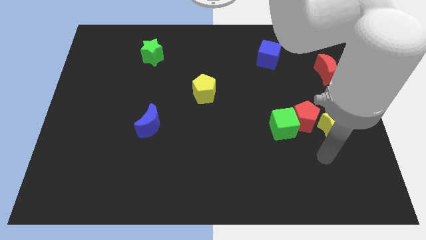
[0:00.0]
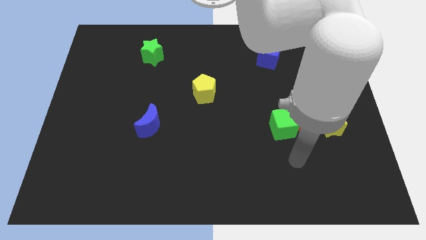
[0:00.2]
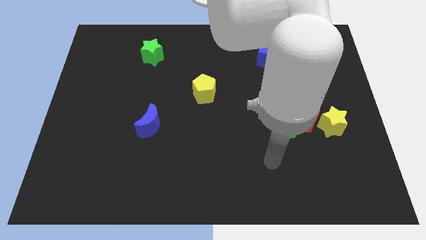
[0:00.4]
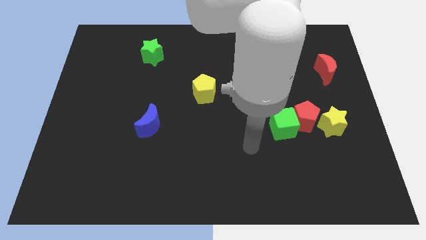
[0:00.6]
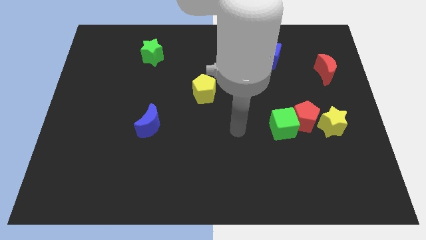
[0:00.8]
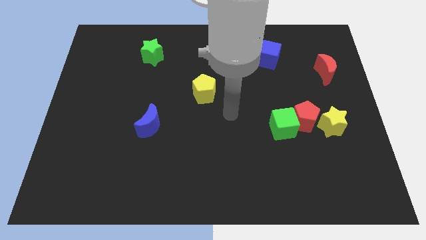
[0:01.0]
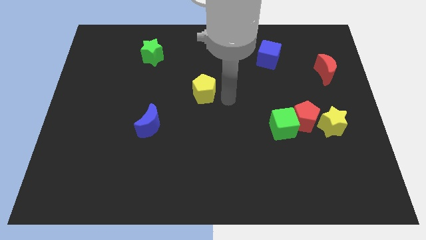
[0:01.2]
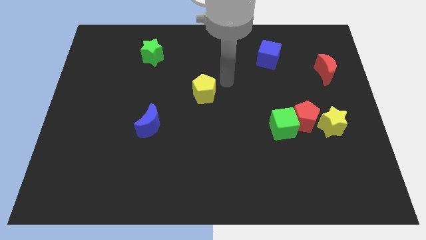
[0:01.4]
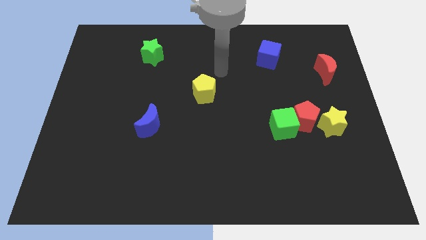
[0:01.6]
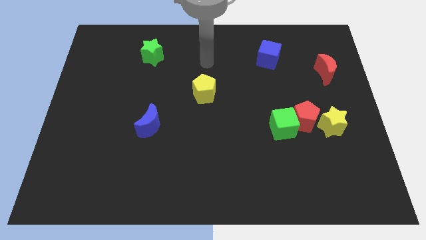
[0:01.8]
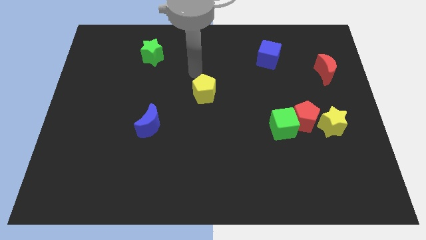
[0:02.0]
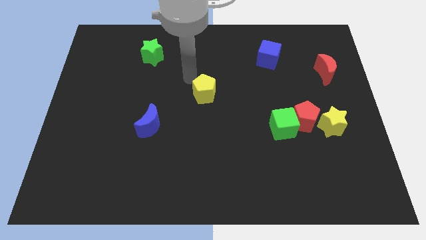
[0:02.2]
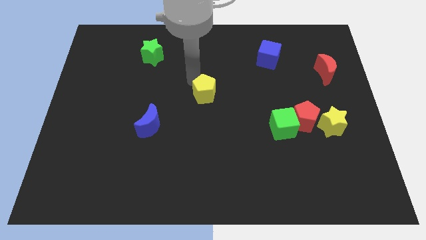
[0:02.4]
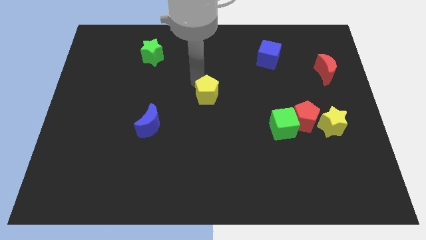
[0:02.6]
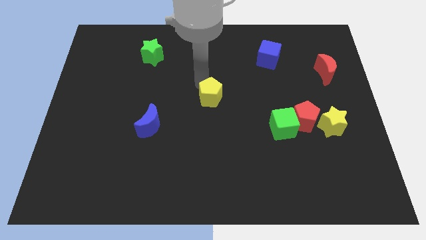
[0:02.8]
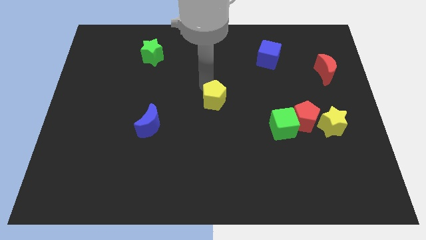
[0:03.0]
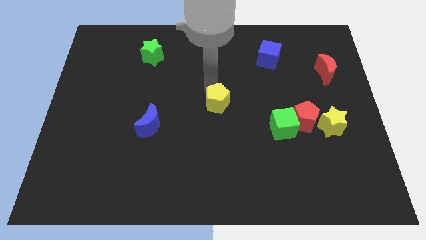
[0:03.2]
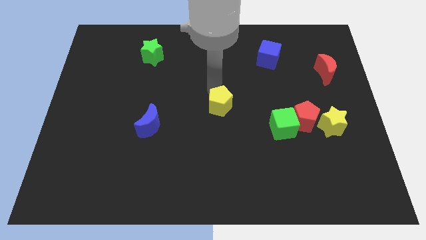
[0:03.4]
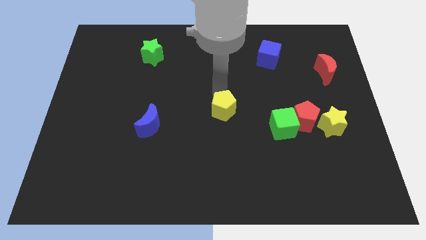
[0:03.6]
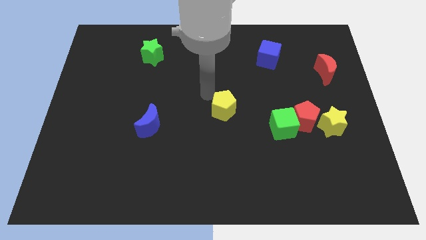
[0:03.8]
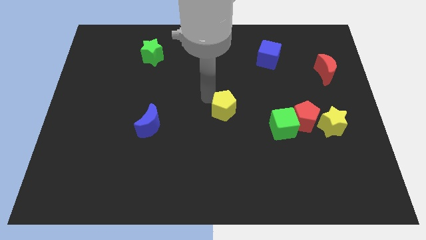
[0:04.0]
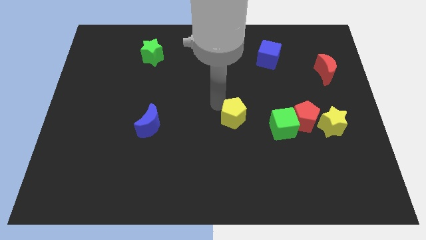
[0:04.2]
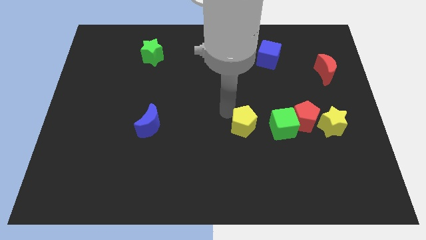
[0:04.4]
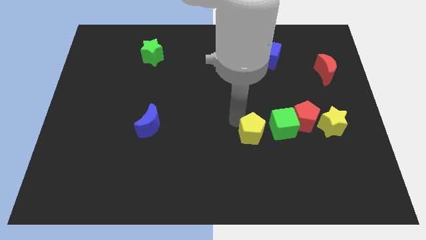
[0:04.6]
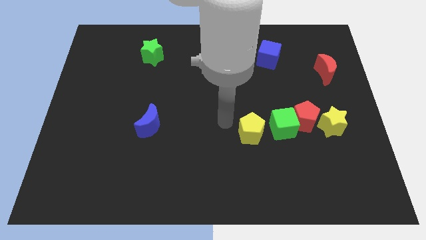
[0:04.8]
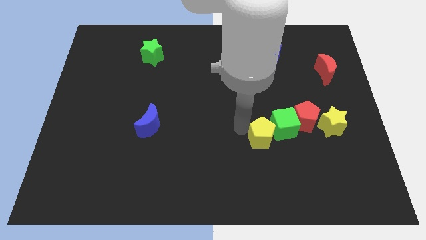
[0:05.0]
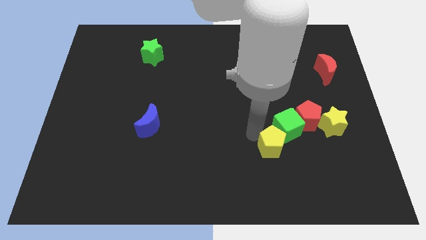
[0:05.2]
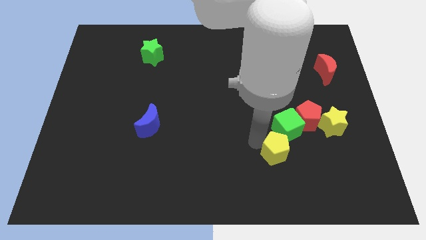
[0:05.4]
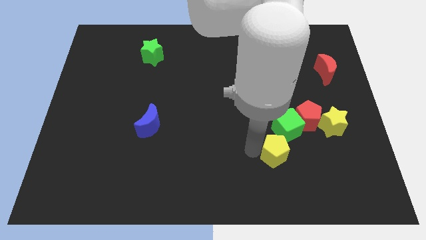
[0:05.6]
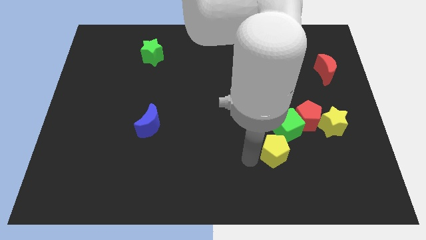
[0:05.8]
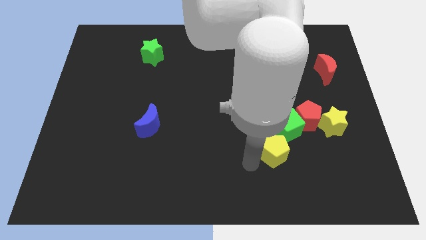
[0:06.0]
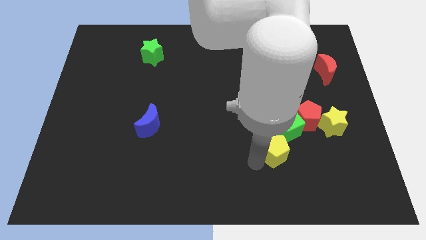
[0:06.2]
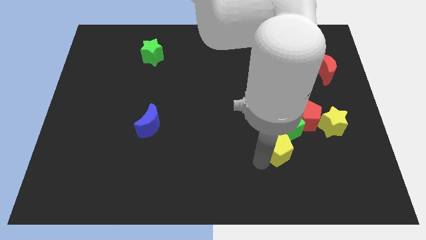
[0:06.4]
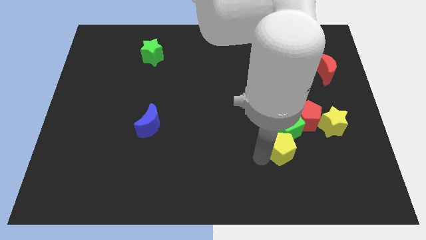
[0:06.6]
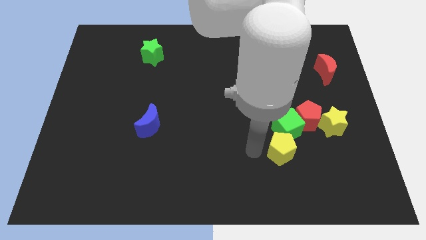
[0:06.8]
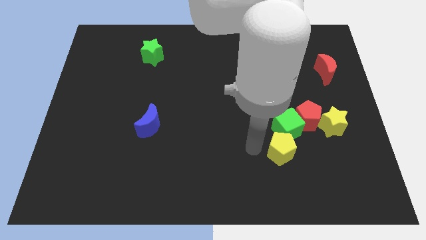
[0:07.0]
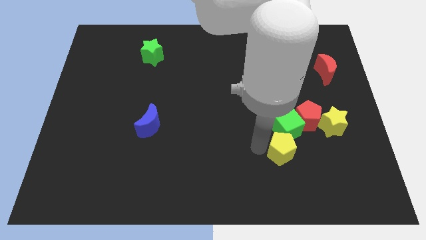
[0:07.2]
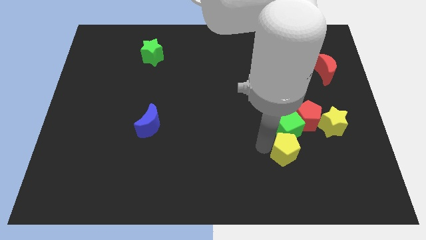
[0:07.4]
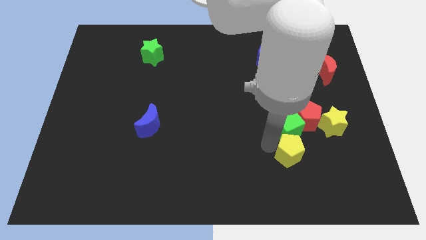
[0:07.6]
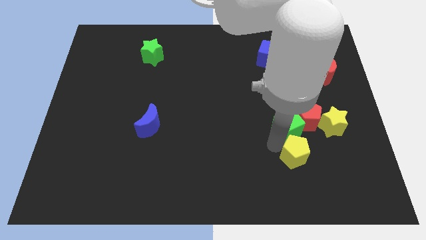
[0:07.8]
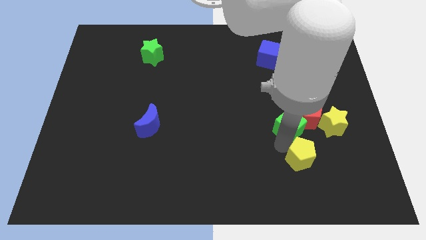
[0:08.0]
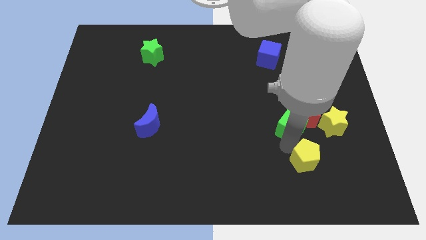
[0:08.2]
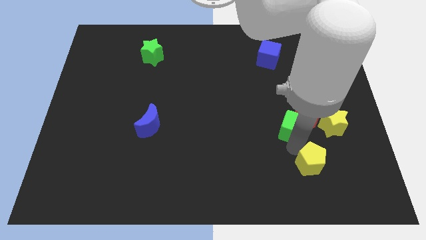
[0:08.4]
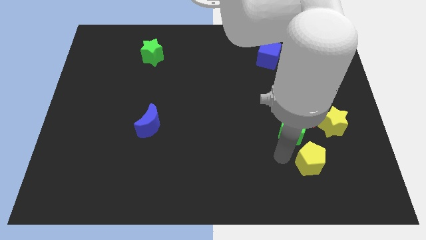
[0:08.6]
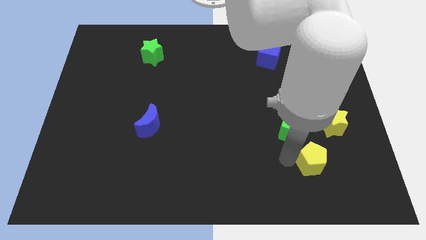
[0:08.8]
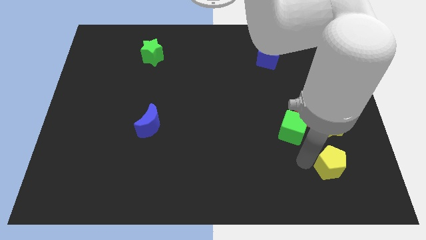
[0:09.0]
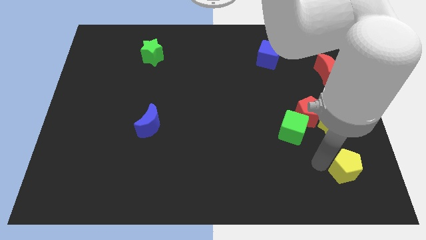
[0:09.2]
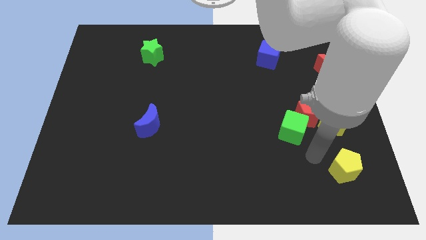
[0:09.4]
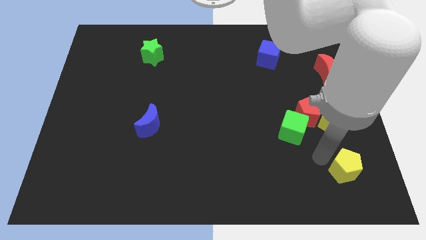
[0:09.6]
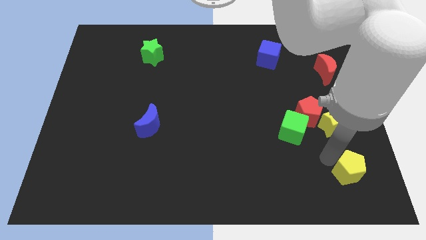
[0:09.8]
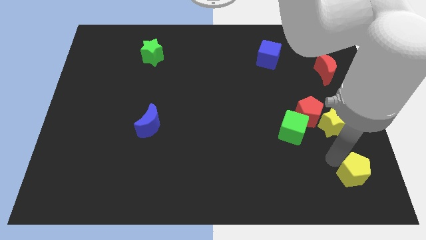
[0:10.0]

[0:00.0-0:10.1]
slide the yellow pentagon to the bottom right of the board

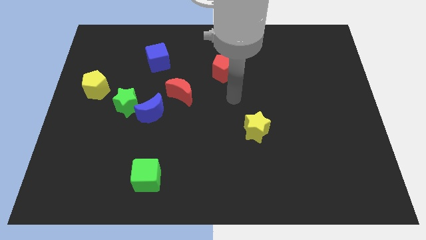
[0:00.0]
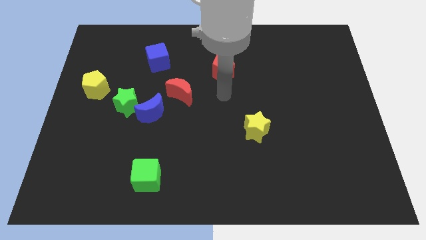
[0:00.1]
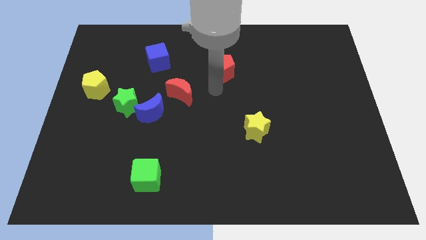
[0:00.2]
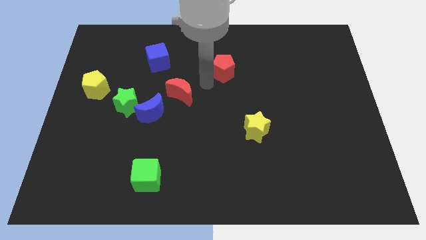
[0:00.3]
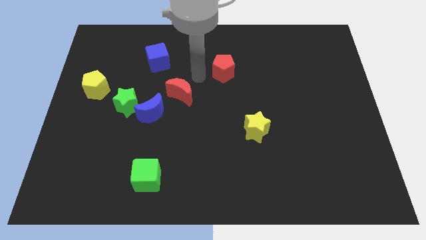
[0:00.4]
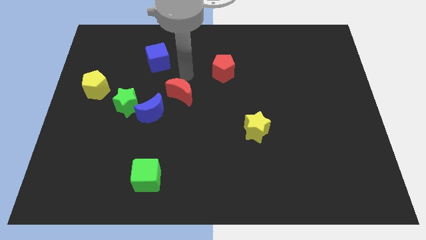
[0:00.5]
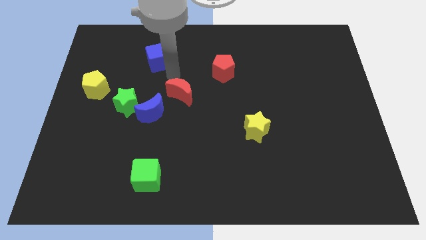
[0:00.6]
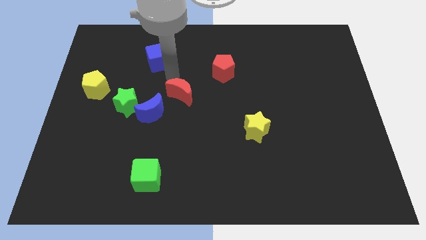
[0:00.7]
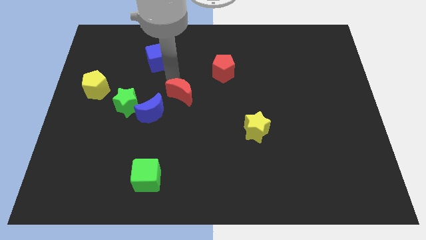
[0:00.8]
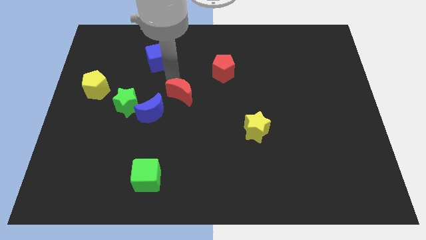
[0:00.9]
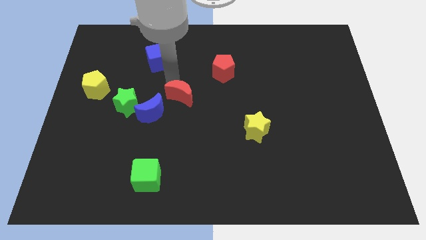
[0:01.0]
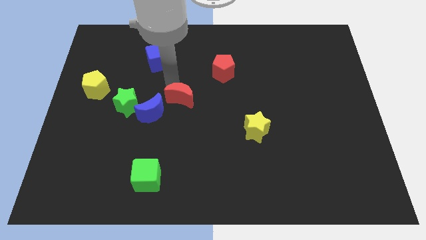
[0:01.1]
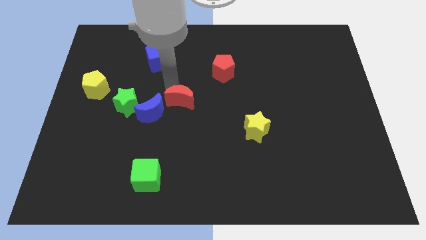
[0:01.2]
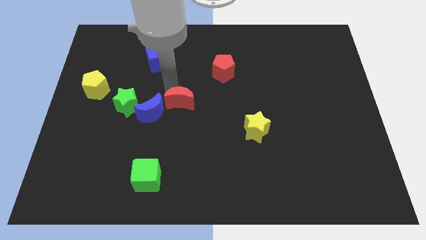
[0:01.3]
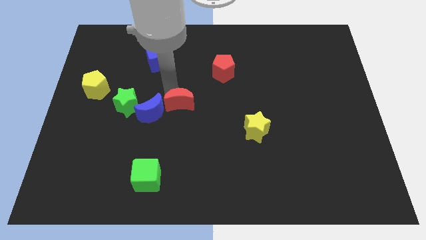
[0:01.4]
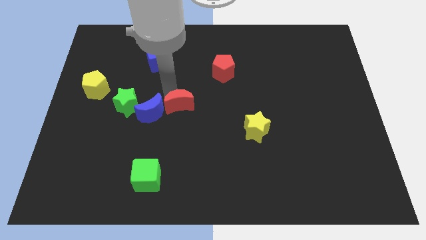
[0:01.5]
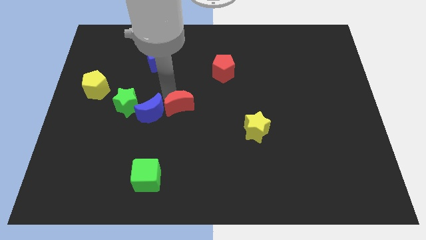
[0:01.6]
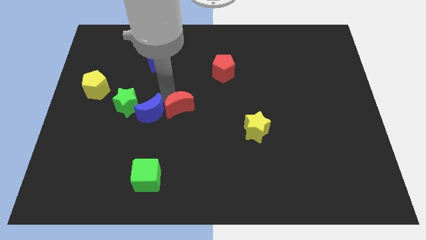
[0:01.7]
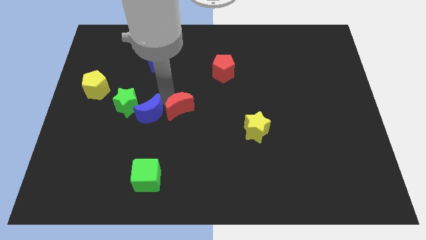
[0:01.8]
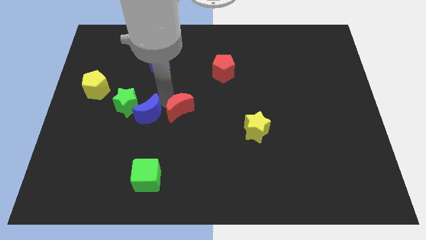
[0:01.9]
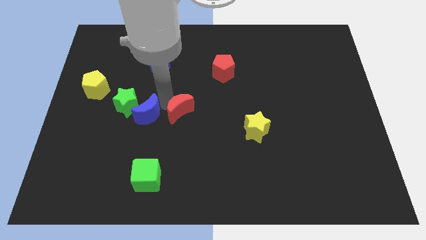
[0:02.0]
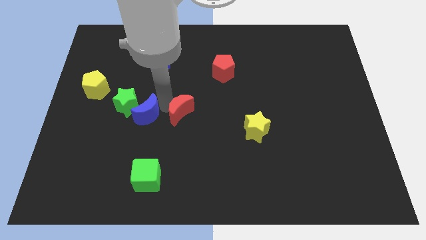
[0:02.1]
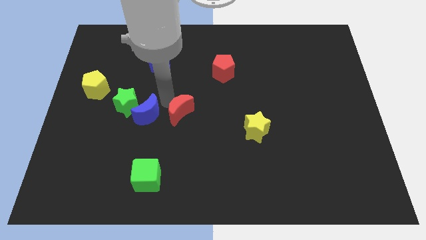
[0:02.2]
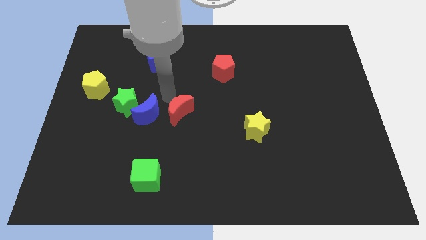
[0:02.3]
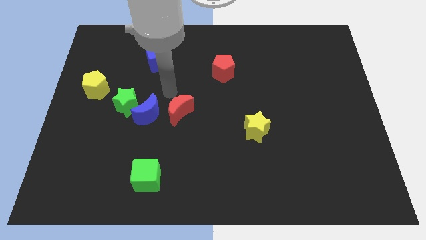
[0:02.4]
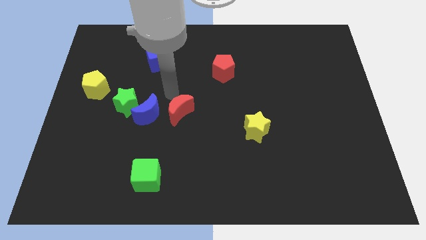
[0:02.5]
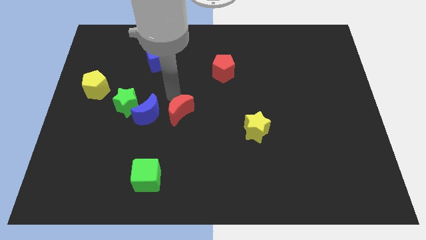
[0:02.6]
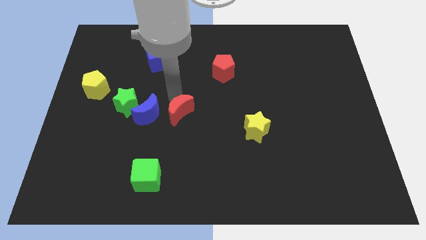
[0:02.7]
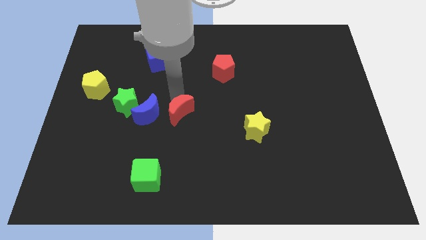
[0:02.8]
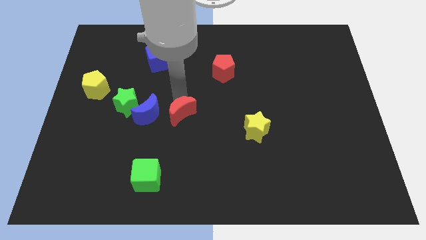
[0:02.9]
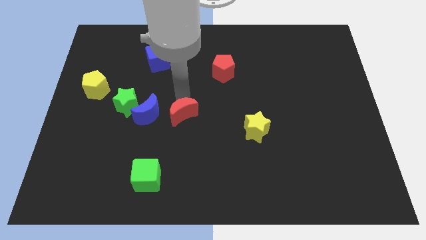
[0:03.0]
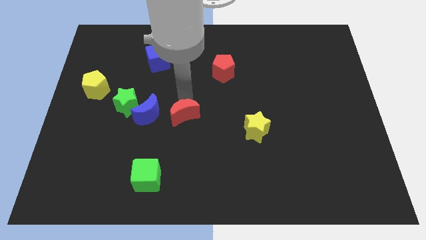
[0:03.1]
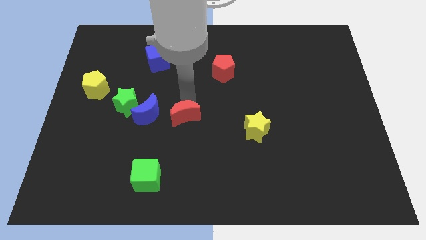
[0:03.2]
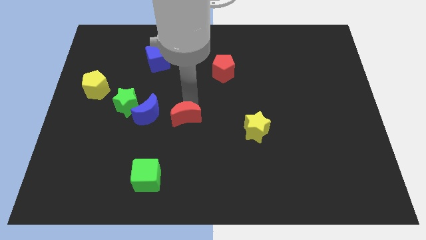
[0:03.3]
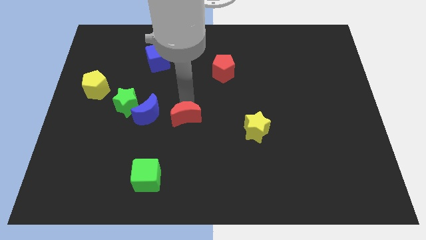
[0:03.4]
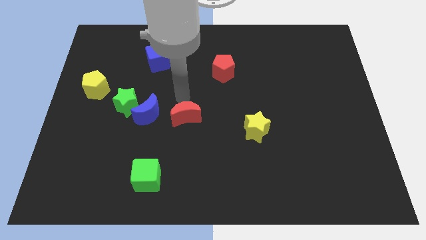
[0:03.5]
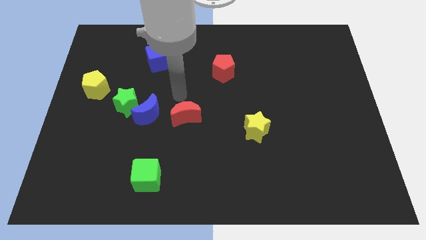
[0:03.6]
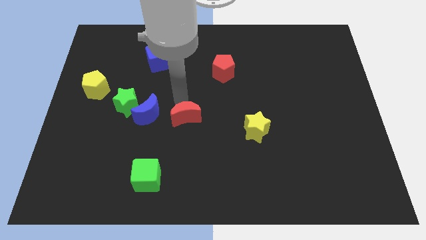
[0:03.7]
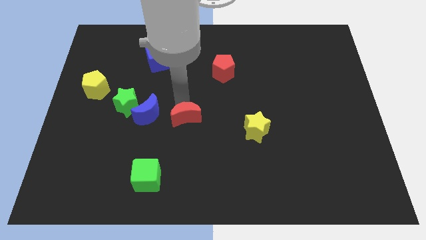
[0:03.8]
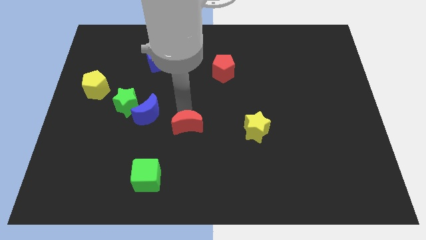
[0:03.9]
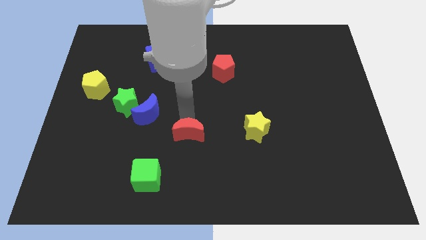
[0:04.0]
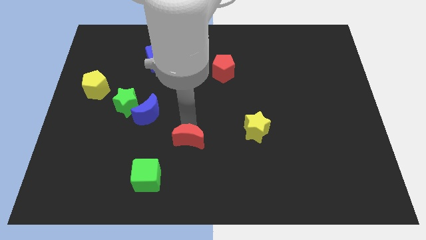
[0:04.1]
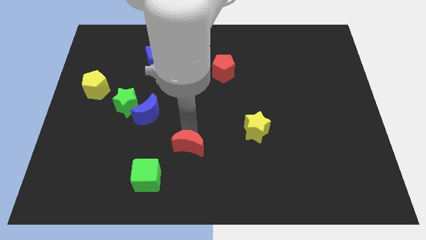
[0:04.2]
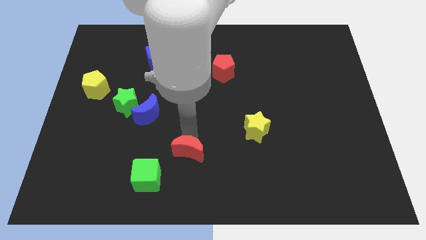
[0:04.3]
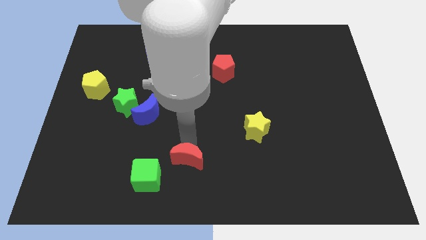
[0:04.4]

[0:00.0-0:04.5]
put the red moon to the bottom side
